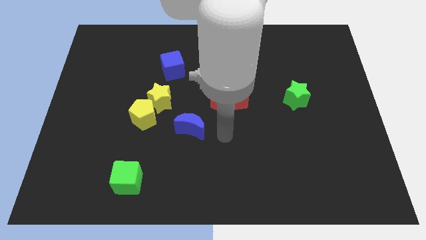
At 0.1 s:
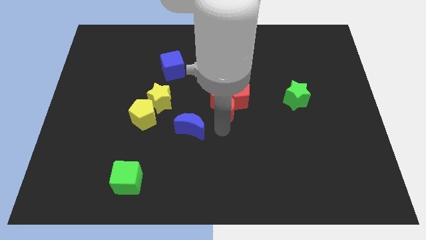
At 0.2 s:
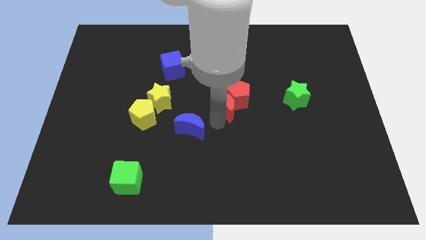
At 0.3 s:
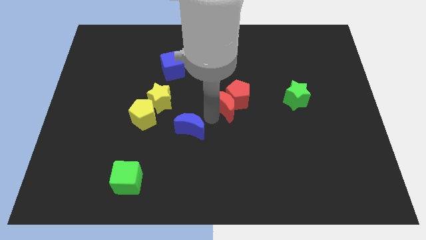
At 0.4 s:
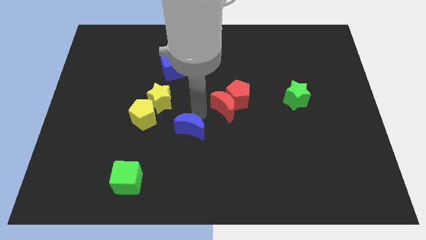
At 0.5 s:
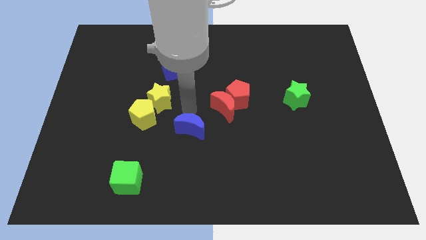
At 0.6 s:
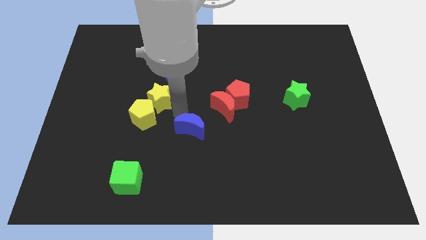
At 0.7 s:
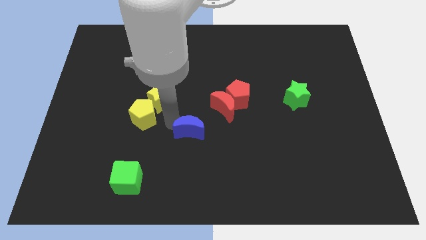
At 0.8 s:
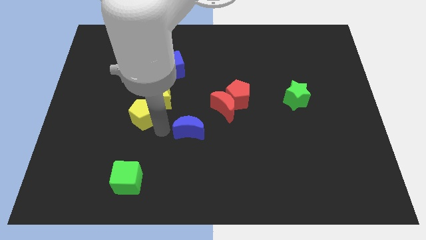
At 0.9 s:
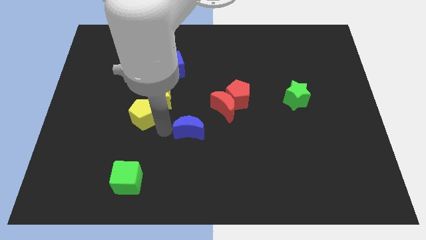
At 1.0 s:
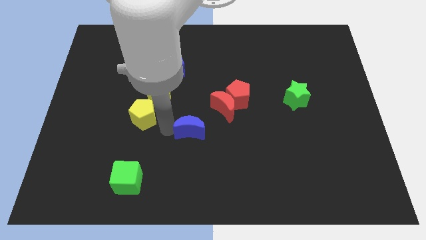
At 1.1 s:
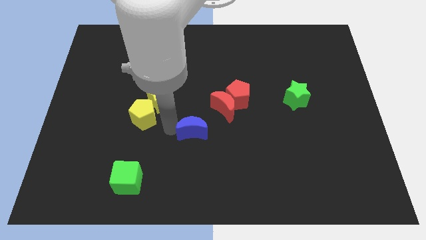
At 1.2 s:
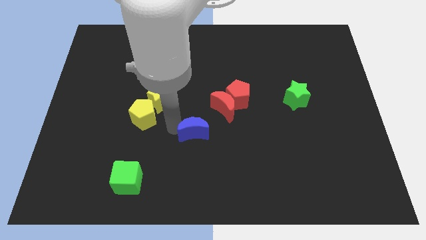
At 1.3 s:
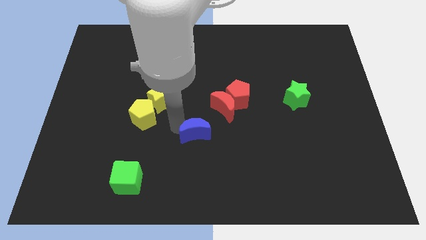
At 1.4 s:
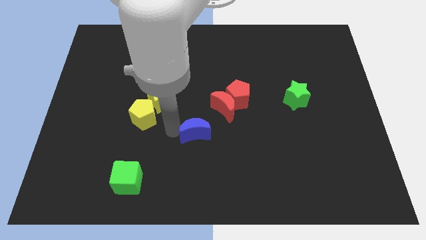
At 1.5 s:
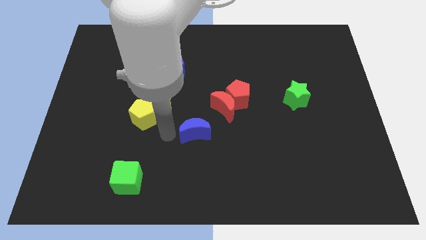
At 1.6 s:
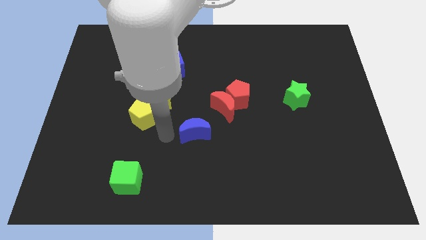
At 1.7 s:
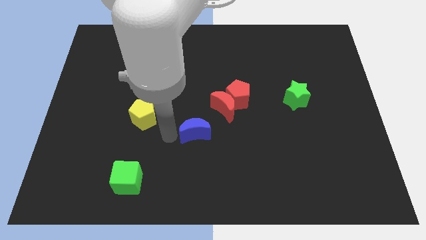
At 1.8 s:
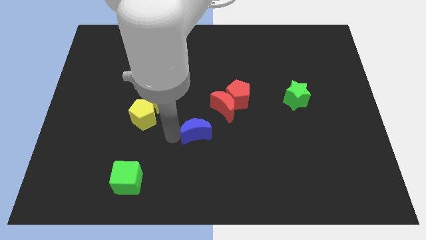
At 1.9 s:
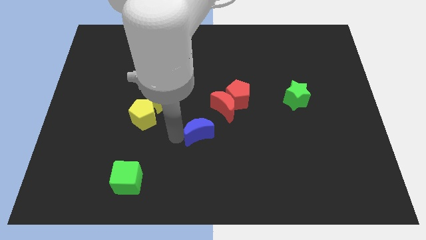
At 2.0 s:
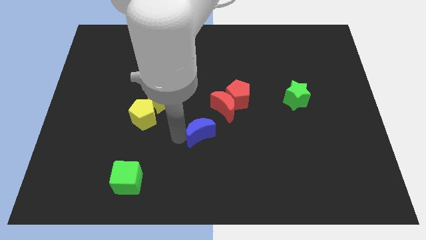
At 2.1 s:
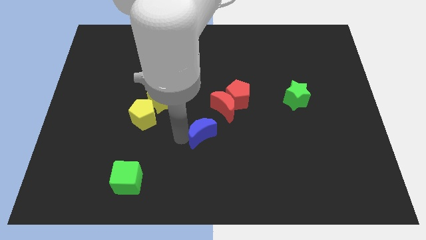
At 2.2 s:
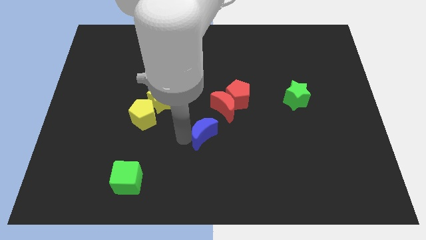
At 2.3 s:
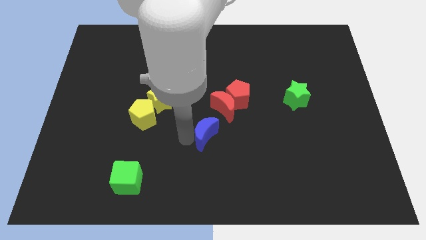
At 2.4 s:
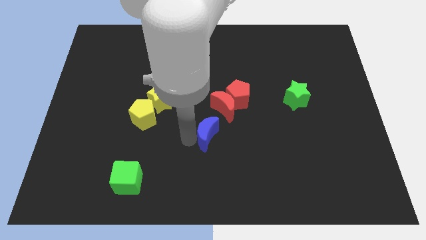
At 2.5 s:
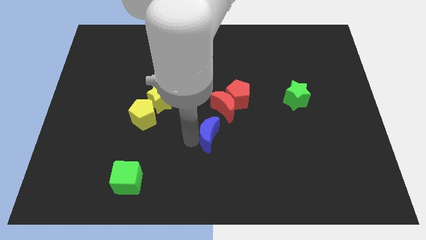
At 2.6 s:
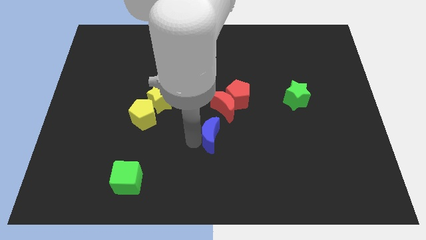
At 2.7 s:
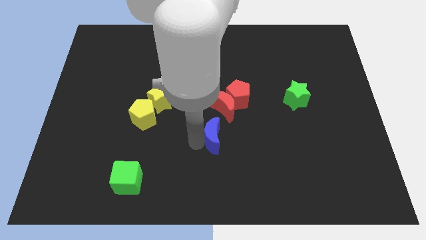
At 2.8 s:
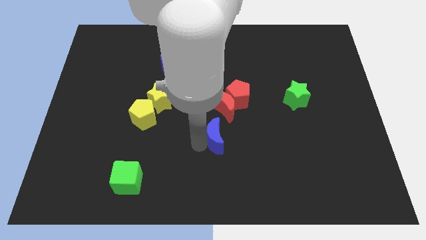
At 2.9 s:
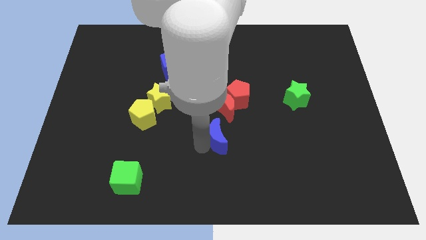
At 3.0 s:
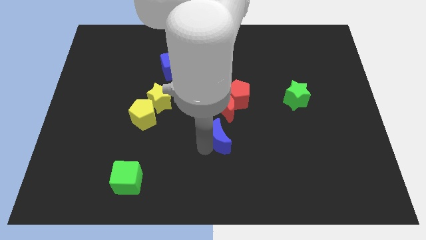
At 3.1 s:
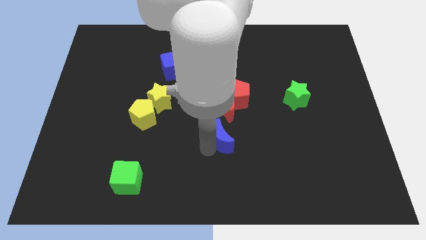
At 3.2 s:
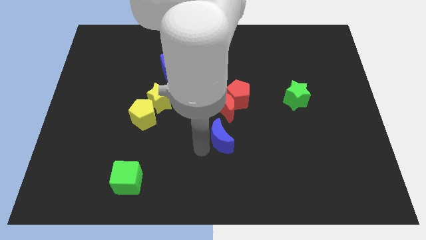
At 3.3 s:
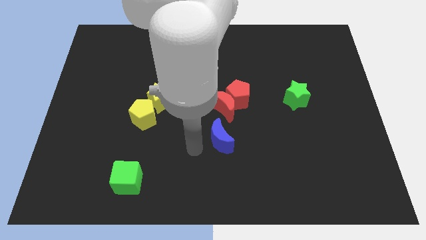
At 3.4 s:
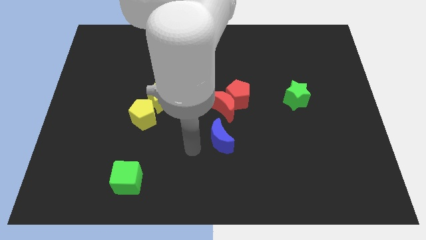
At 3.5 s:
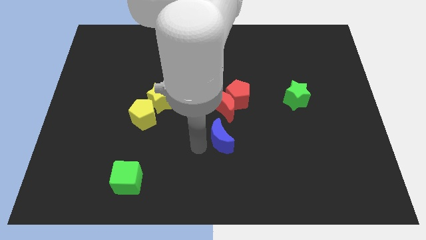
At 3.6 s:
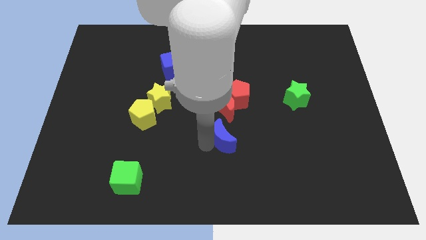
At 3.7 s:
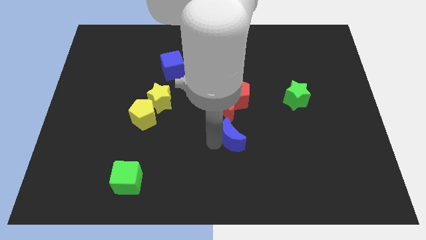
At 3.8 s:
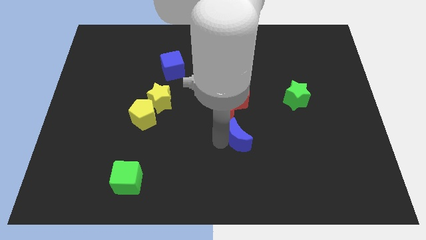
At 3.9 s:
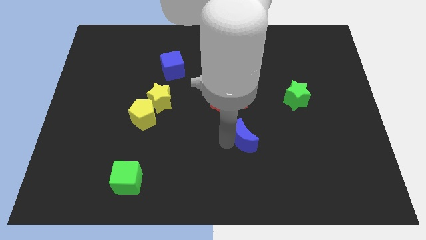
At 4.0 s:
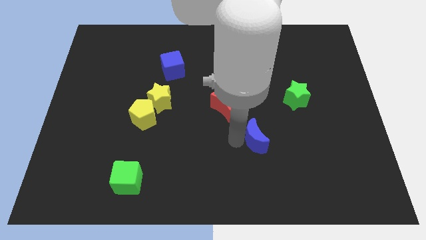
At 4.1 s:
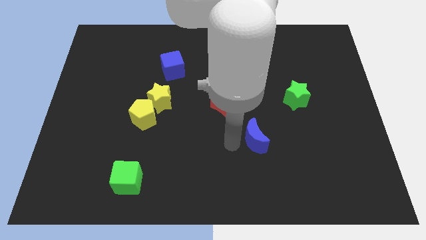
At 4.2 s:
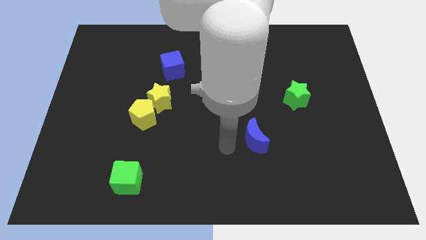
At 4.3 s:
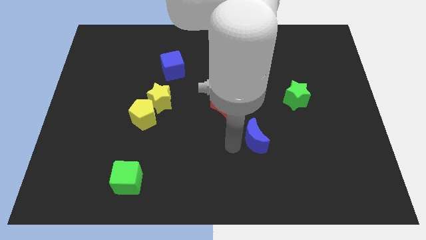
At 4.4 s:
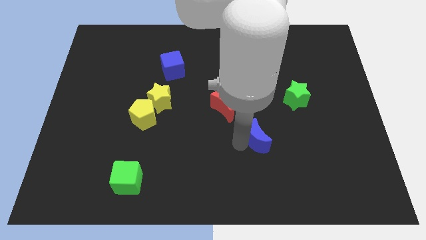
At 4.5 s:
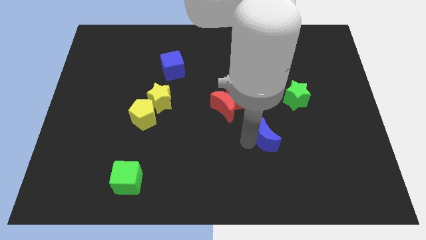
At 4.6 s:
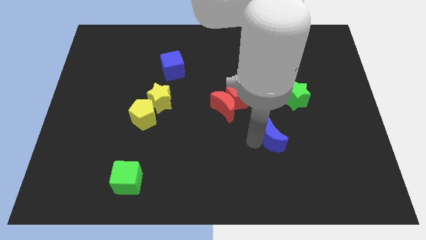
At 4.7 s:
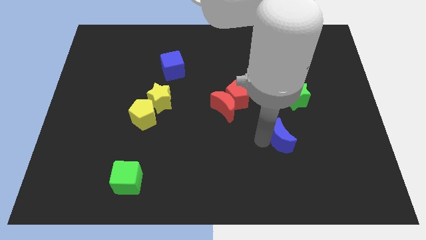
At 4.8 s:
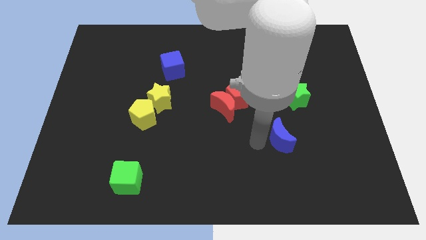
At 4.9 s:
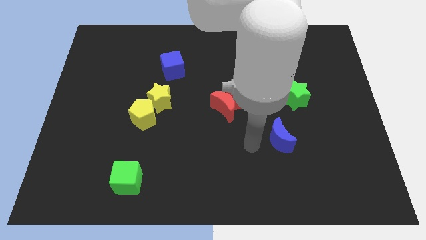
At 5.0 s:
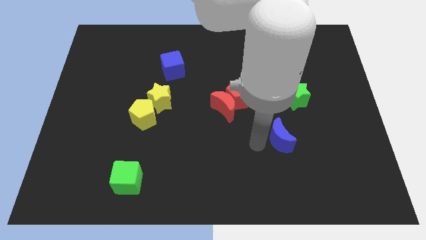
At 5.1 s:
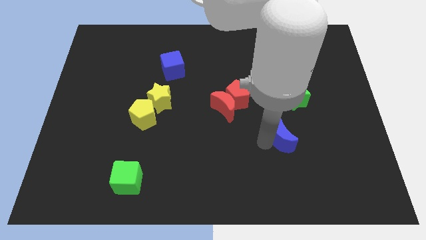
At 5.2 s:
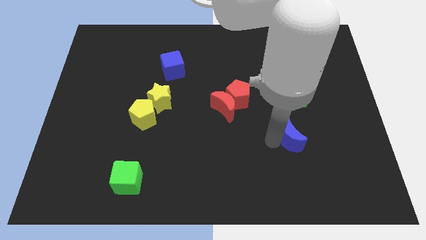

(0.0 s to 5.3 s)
put the blue moon to the bottom of the green star

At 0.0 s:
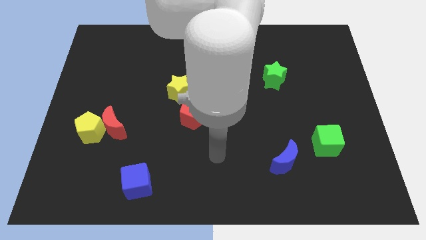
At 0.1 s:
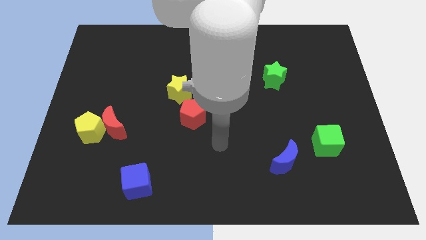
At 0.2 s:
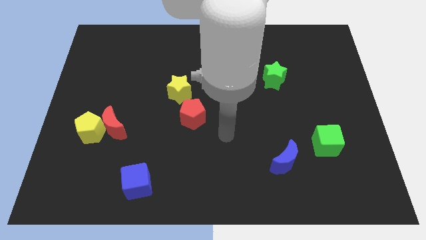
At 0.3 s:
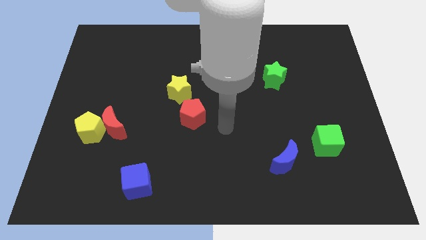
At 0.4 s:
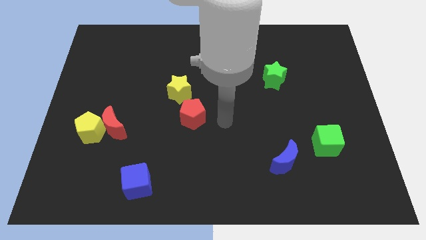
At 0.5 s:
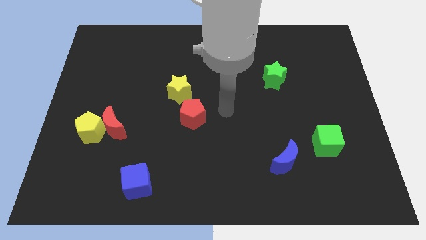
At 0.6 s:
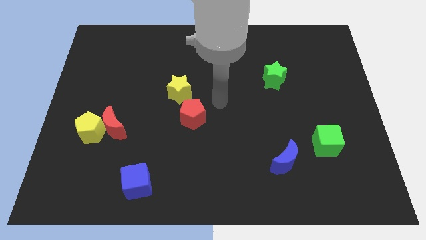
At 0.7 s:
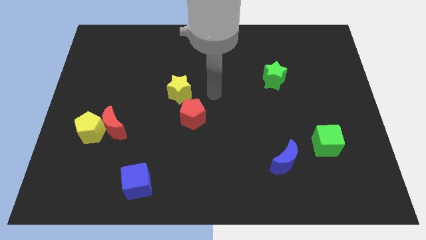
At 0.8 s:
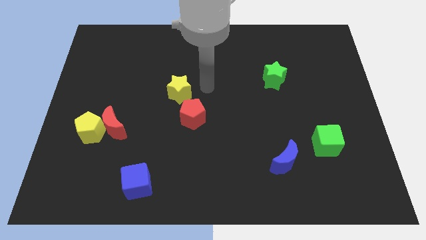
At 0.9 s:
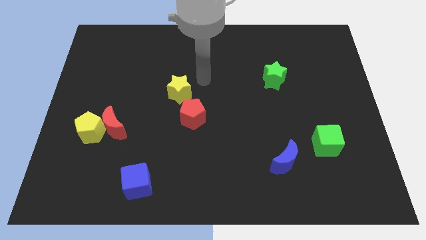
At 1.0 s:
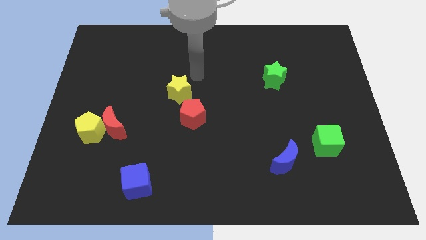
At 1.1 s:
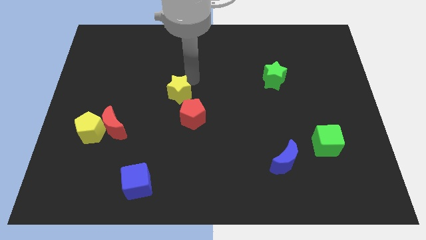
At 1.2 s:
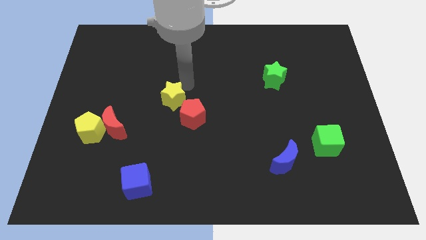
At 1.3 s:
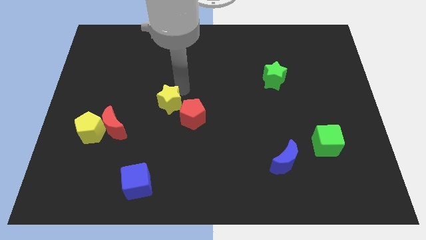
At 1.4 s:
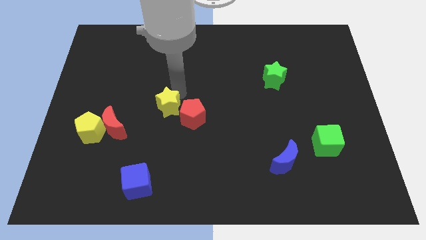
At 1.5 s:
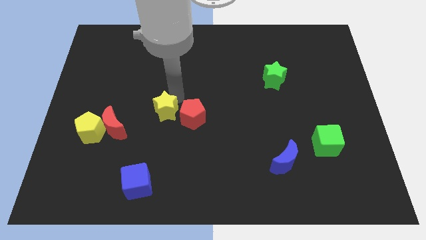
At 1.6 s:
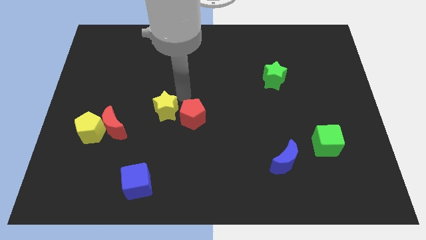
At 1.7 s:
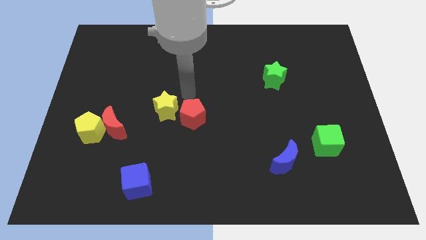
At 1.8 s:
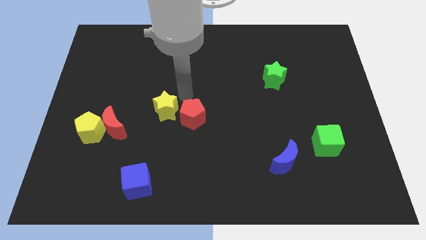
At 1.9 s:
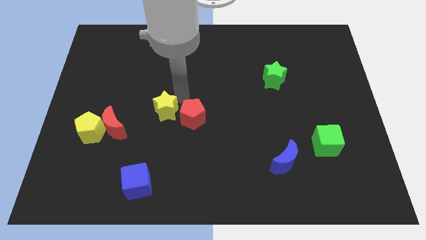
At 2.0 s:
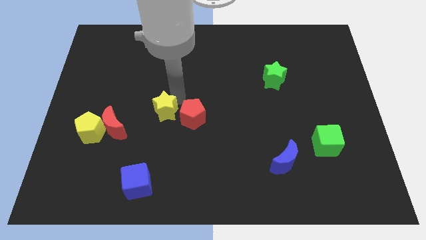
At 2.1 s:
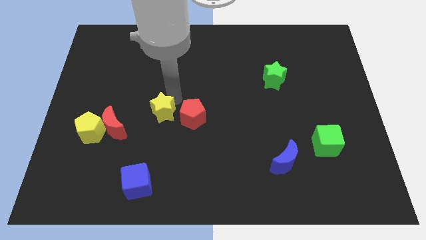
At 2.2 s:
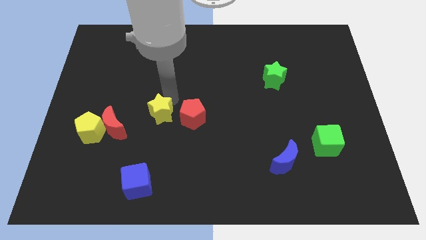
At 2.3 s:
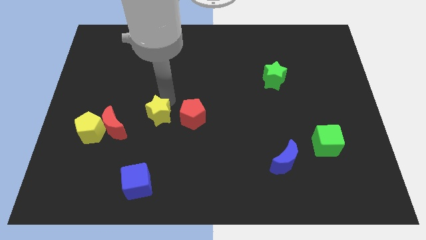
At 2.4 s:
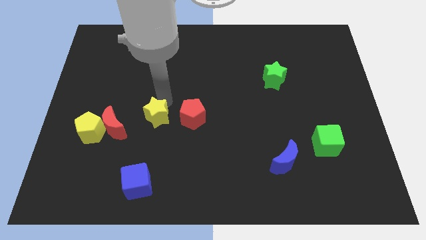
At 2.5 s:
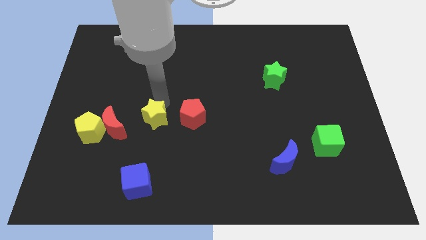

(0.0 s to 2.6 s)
move the yellow star right of the yellow pentagon
